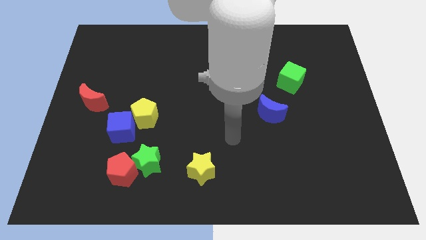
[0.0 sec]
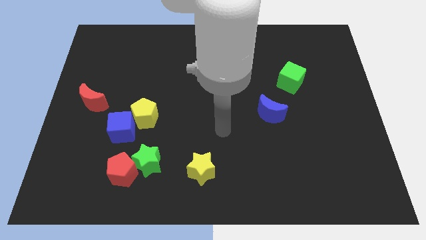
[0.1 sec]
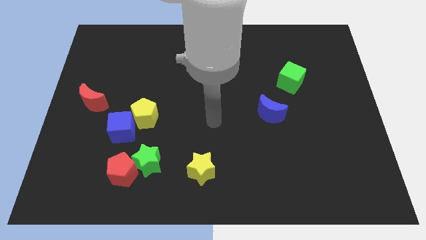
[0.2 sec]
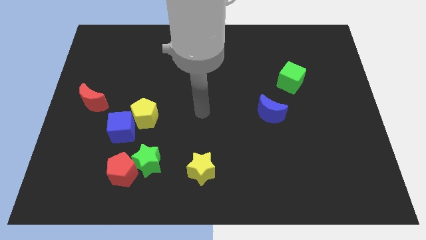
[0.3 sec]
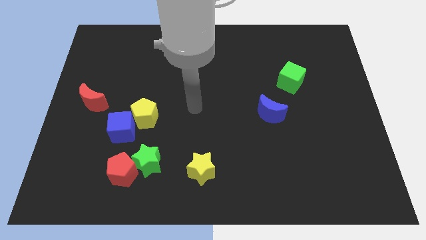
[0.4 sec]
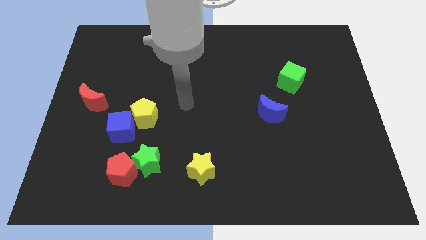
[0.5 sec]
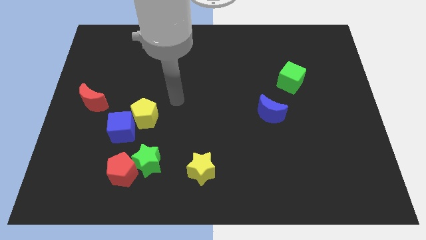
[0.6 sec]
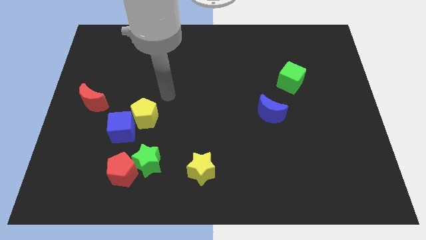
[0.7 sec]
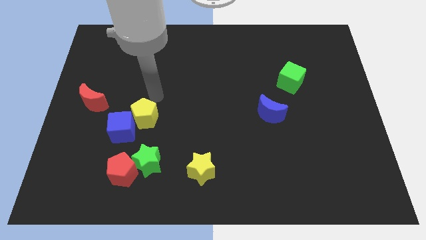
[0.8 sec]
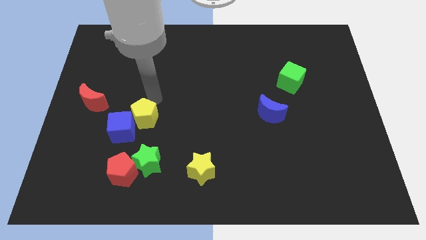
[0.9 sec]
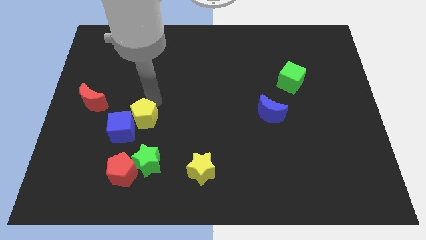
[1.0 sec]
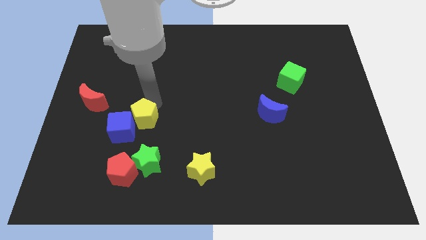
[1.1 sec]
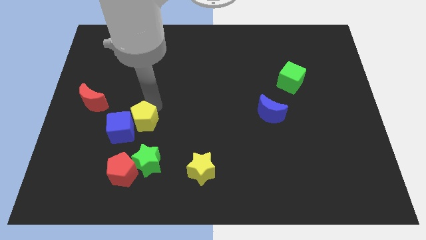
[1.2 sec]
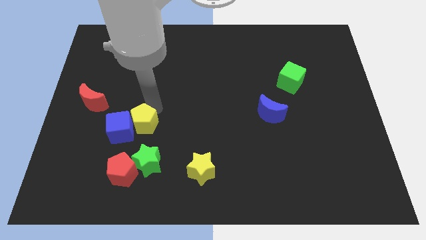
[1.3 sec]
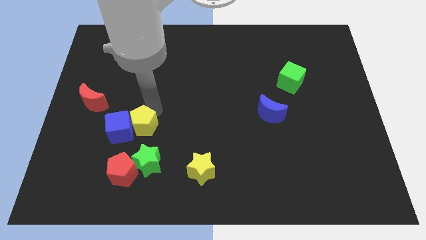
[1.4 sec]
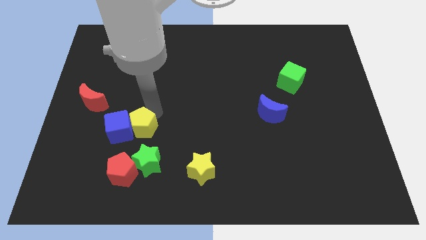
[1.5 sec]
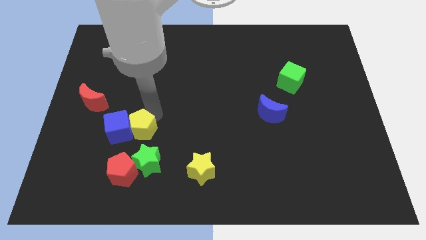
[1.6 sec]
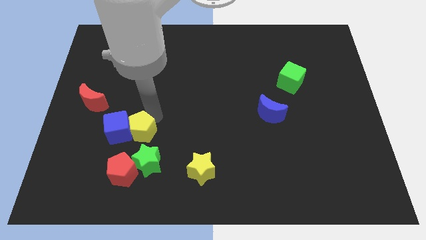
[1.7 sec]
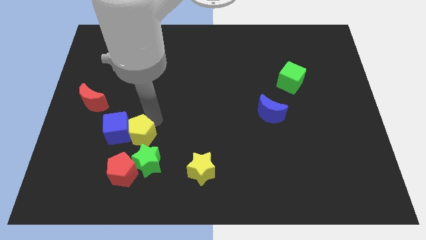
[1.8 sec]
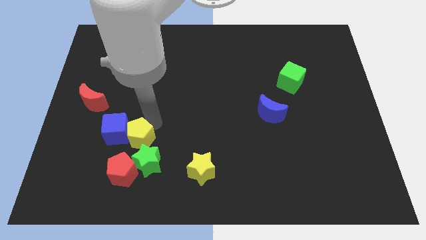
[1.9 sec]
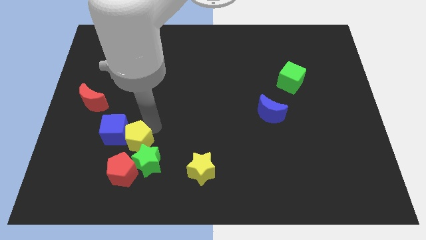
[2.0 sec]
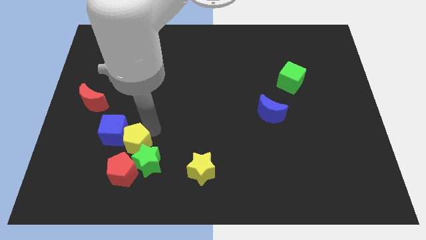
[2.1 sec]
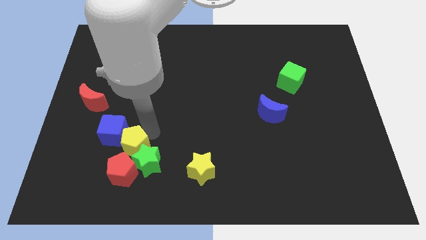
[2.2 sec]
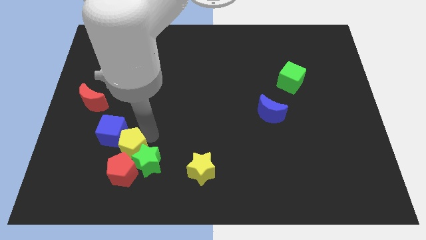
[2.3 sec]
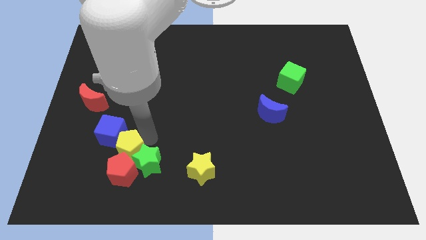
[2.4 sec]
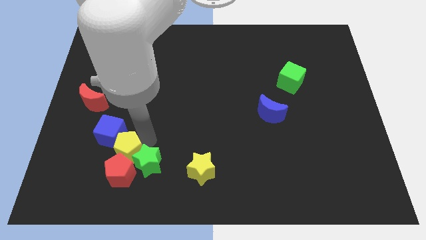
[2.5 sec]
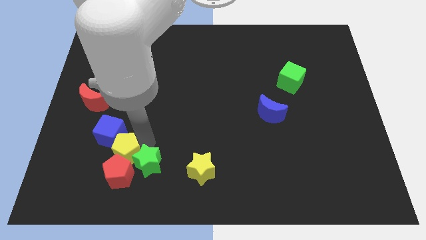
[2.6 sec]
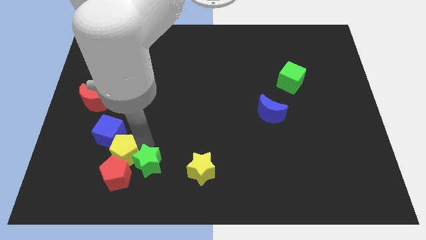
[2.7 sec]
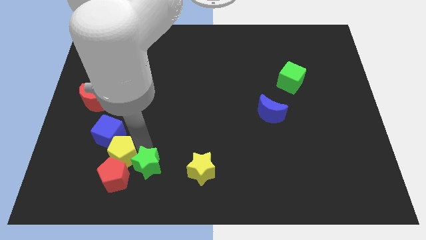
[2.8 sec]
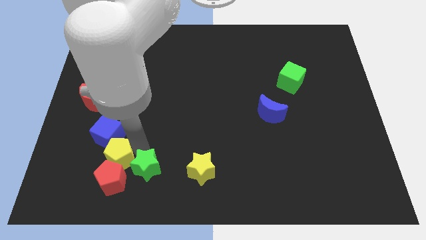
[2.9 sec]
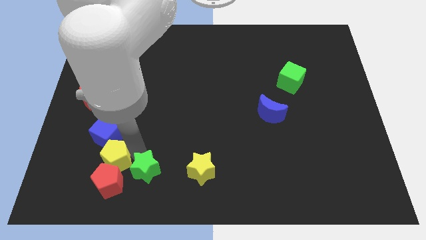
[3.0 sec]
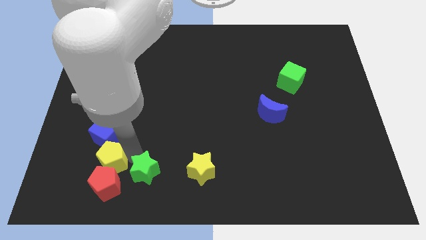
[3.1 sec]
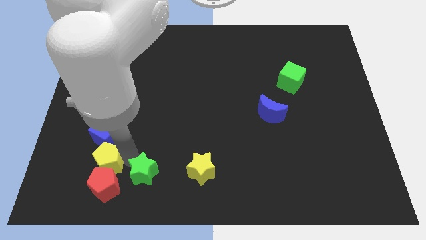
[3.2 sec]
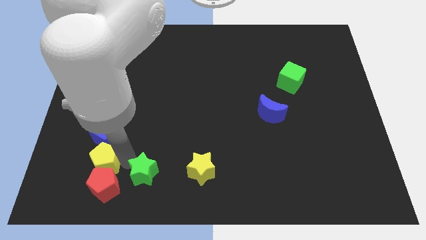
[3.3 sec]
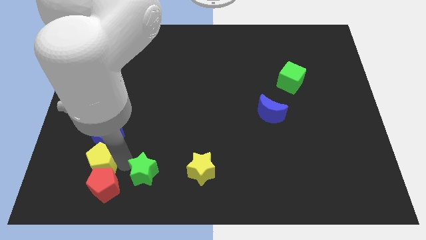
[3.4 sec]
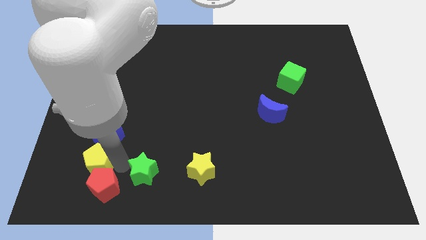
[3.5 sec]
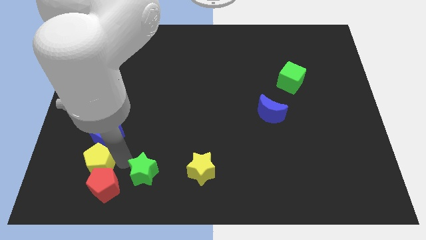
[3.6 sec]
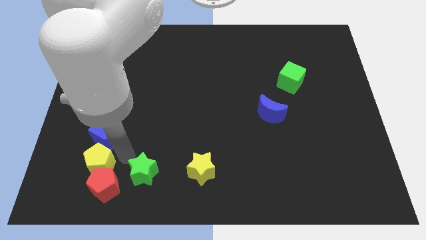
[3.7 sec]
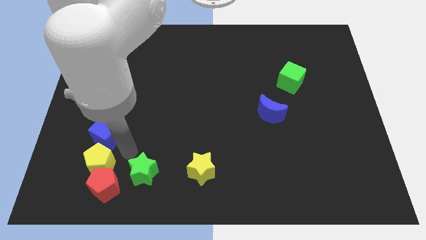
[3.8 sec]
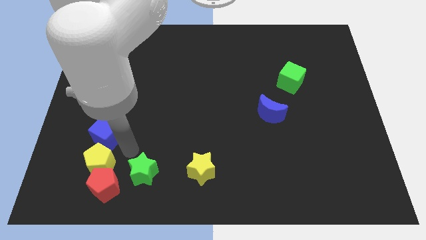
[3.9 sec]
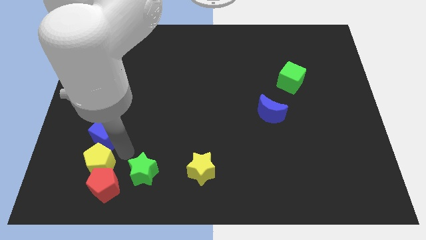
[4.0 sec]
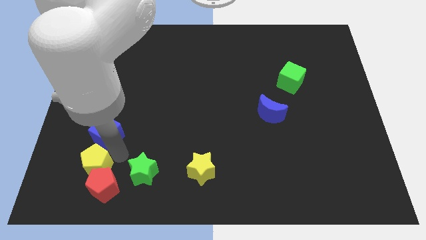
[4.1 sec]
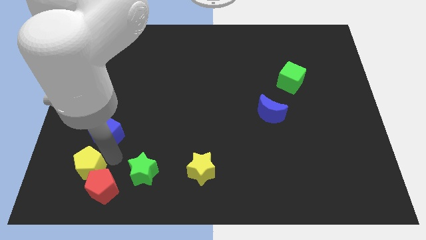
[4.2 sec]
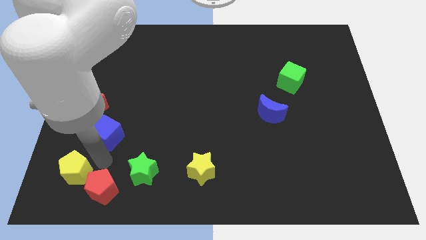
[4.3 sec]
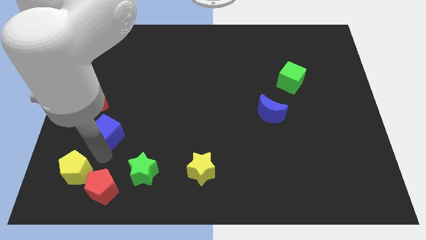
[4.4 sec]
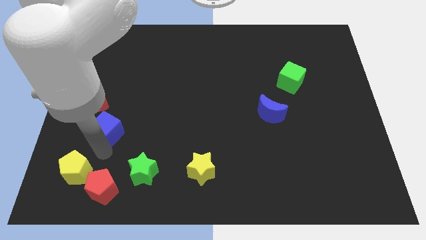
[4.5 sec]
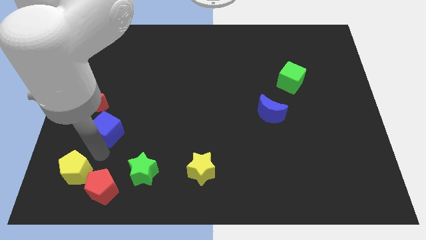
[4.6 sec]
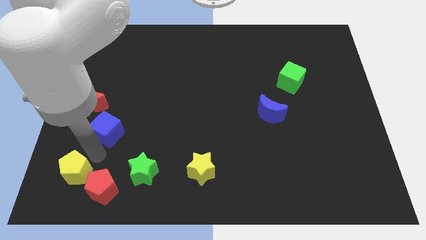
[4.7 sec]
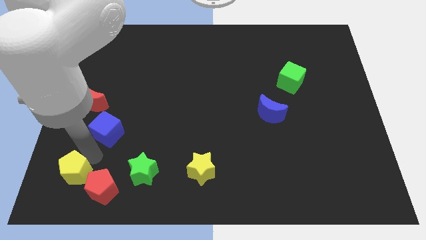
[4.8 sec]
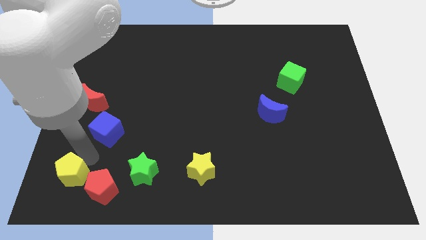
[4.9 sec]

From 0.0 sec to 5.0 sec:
push the yellow pentagon to the bottom left corner

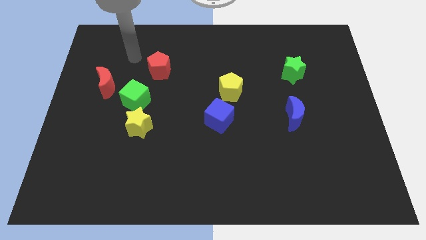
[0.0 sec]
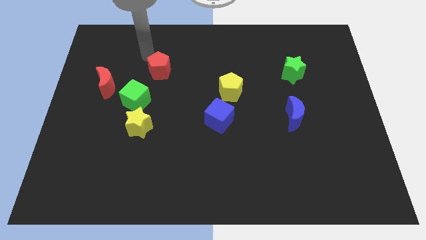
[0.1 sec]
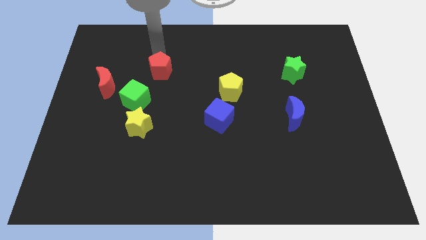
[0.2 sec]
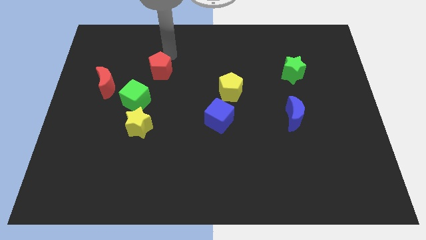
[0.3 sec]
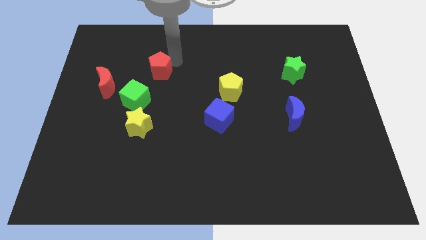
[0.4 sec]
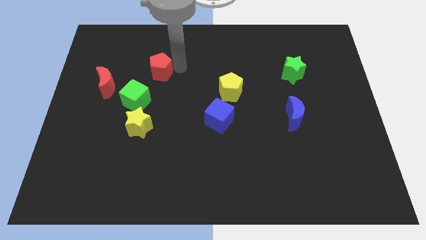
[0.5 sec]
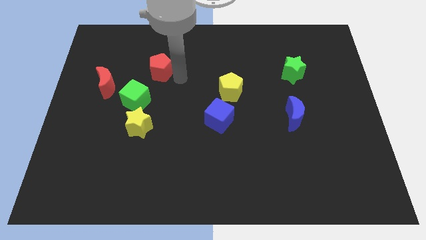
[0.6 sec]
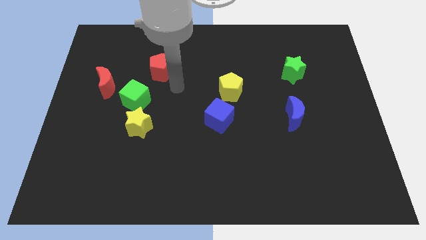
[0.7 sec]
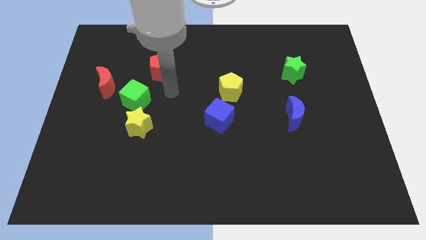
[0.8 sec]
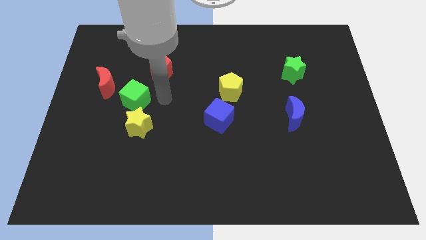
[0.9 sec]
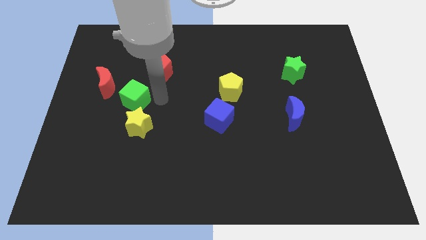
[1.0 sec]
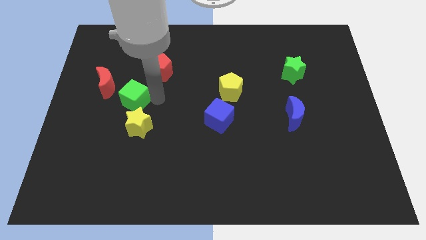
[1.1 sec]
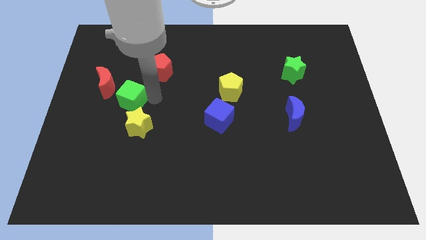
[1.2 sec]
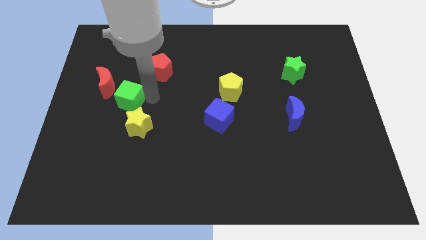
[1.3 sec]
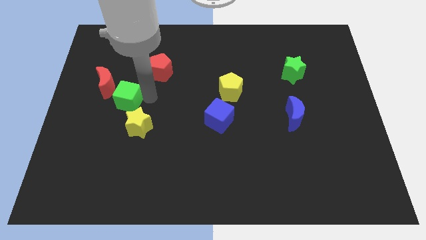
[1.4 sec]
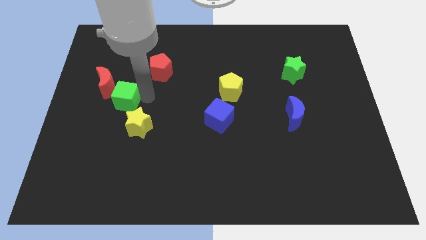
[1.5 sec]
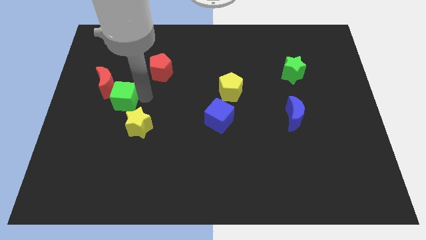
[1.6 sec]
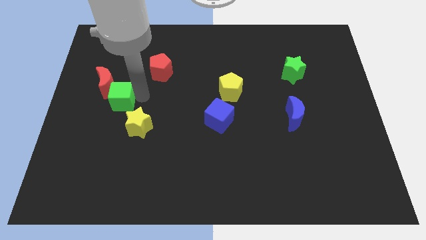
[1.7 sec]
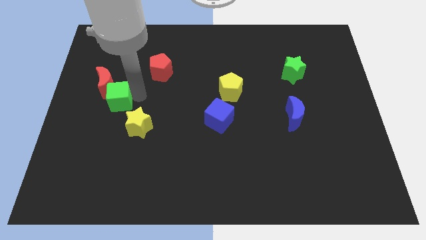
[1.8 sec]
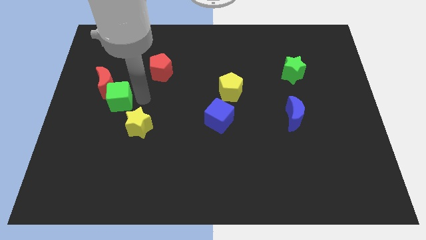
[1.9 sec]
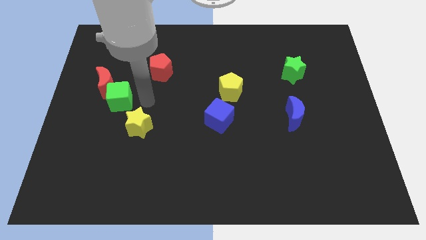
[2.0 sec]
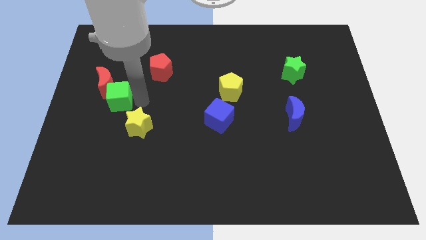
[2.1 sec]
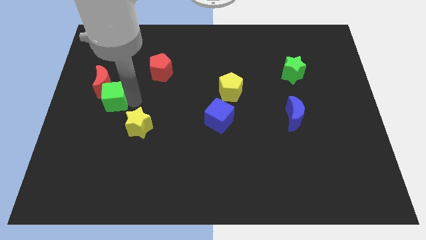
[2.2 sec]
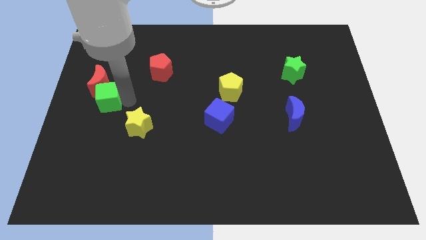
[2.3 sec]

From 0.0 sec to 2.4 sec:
slide the green cube to the center left
